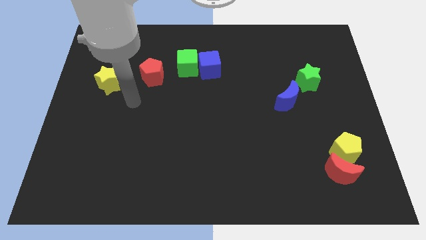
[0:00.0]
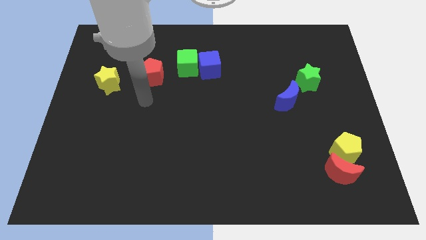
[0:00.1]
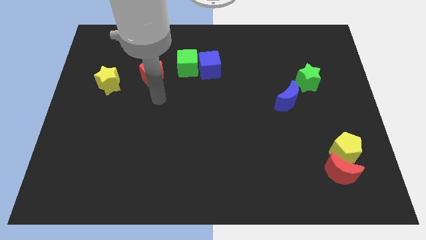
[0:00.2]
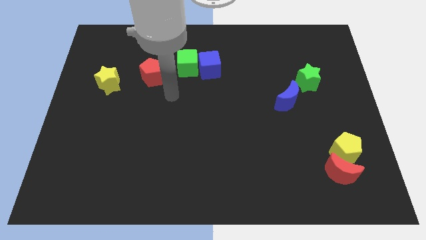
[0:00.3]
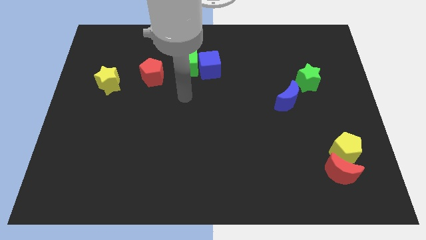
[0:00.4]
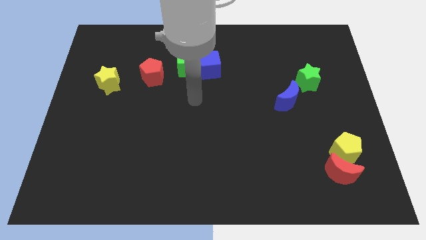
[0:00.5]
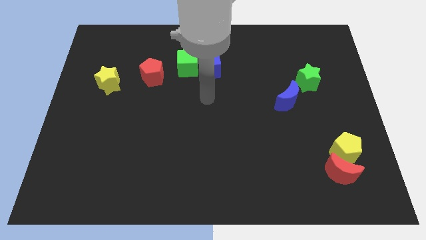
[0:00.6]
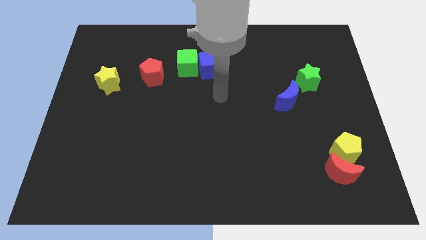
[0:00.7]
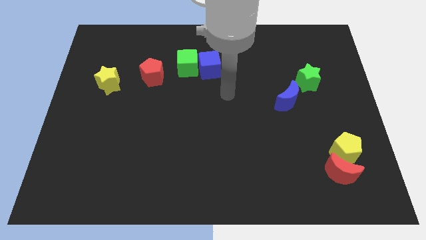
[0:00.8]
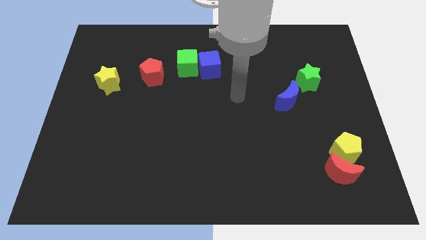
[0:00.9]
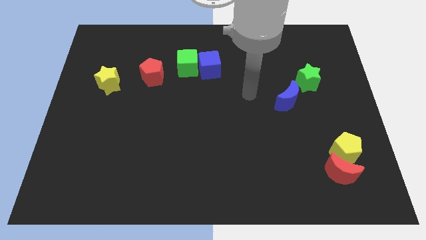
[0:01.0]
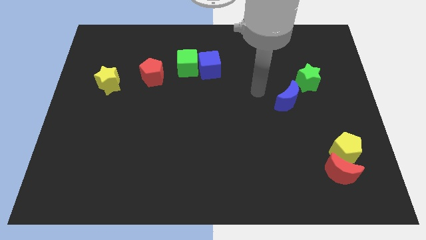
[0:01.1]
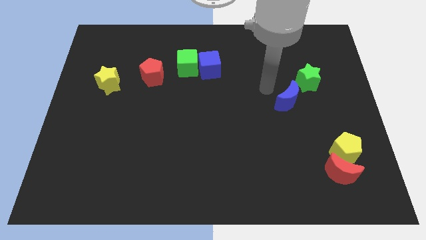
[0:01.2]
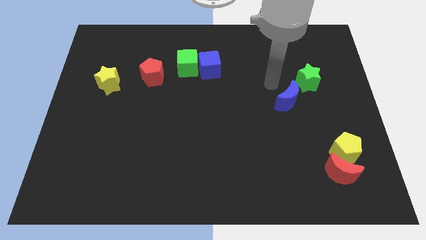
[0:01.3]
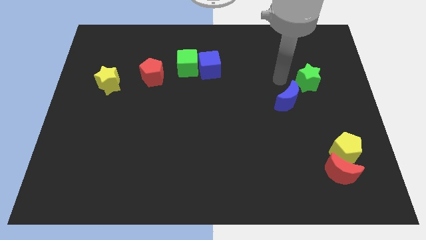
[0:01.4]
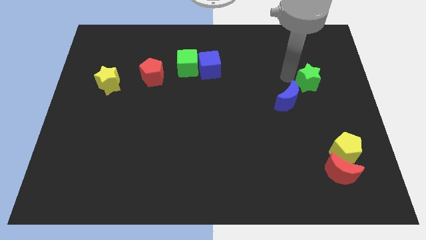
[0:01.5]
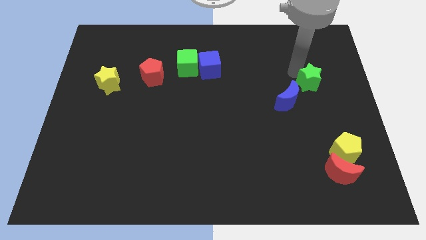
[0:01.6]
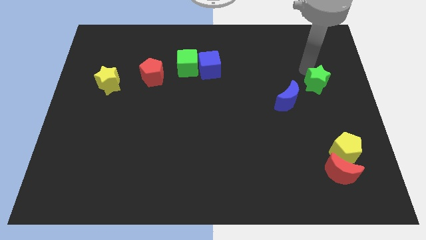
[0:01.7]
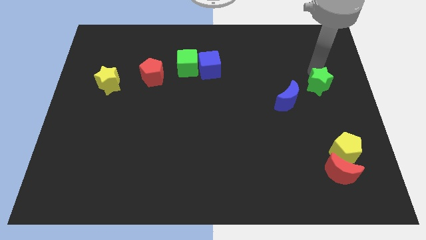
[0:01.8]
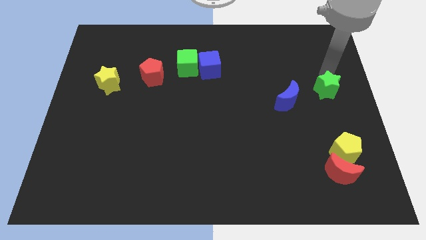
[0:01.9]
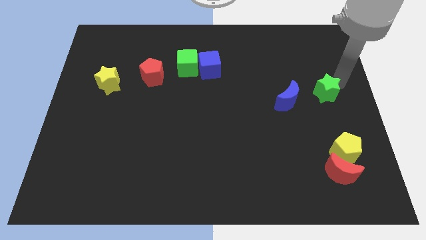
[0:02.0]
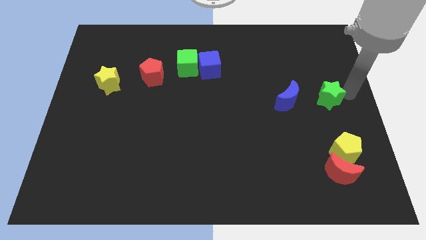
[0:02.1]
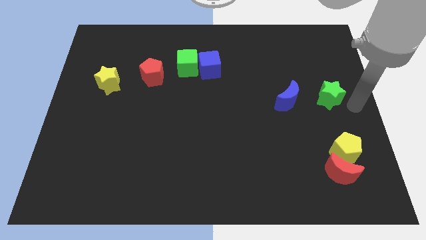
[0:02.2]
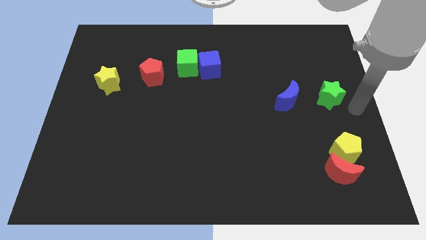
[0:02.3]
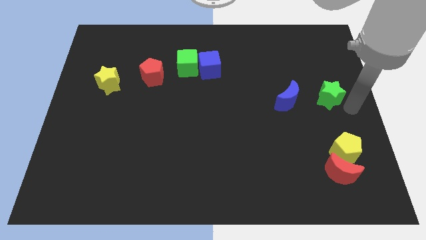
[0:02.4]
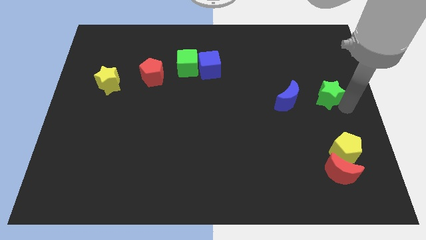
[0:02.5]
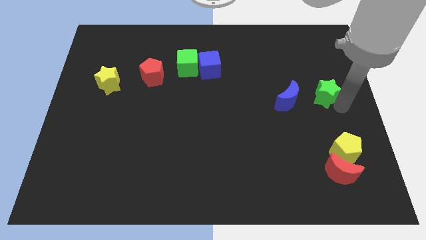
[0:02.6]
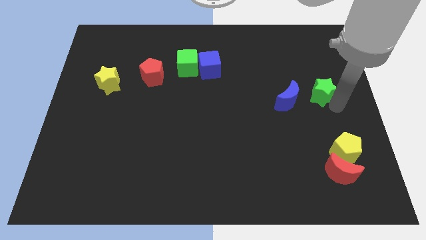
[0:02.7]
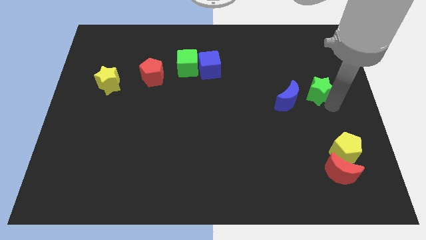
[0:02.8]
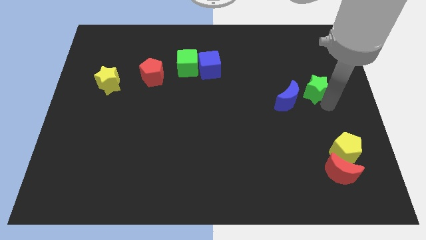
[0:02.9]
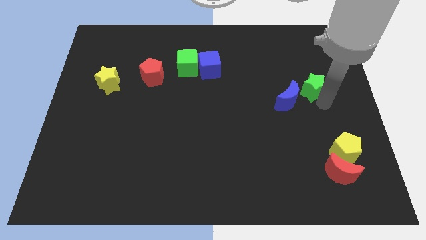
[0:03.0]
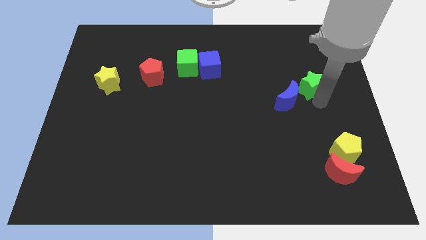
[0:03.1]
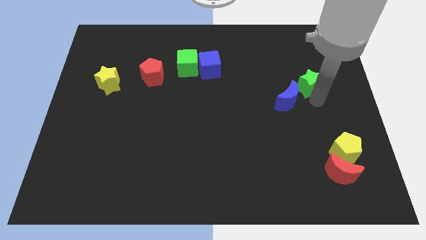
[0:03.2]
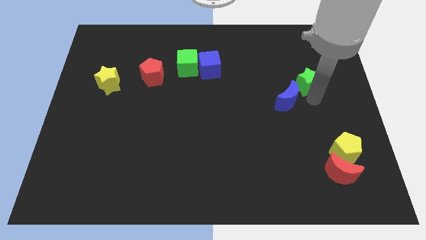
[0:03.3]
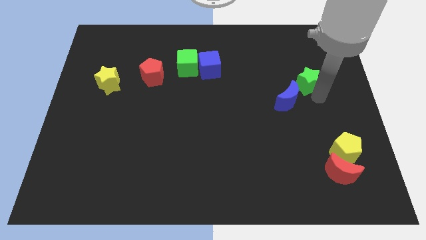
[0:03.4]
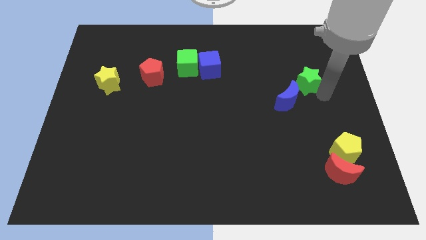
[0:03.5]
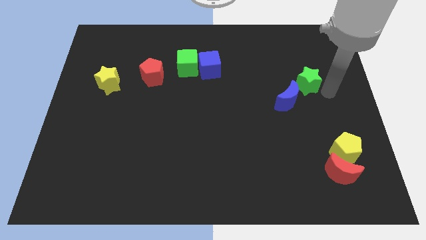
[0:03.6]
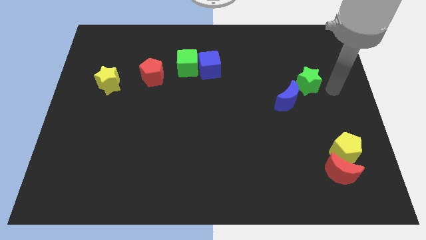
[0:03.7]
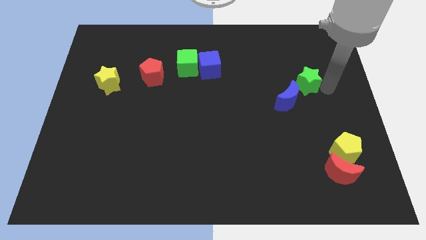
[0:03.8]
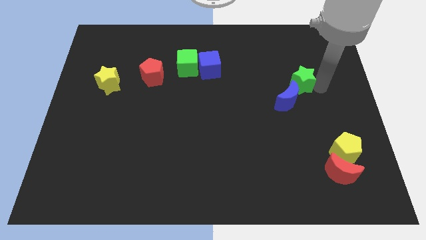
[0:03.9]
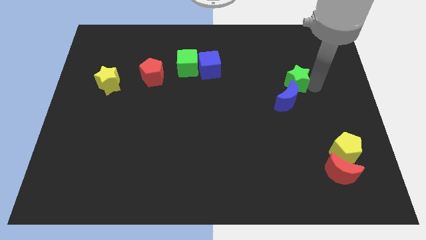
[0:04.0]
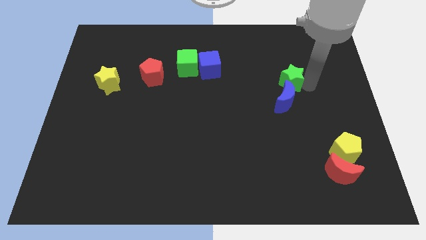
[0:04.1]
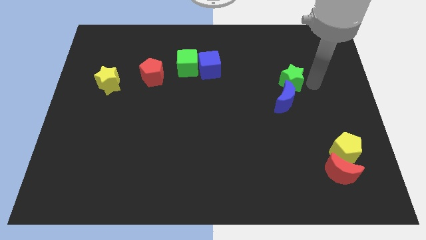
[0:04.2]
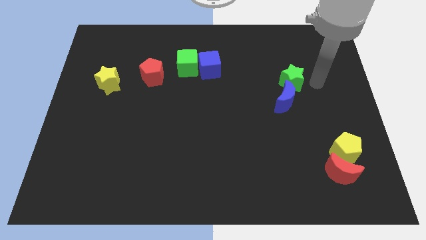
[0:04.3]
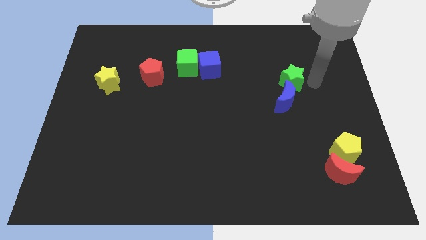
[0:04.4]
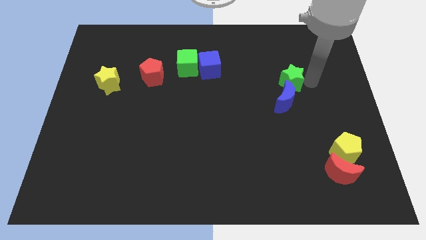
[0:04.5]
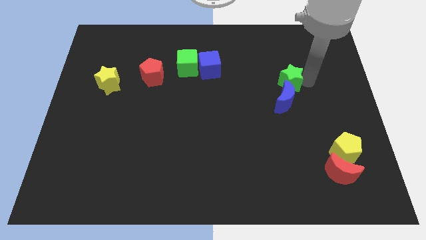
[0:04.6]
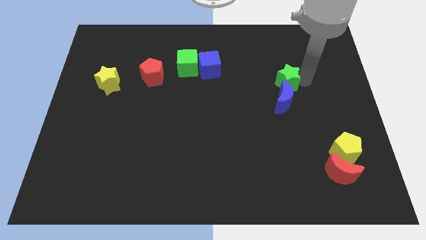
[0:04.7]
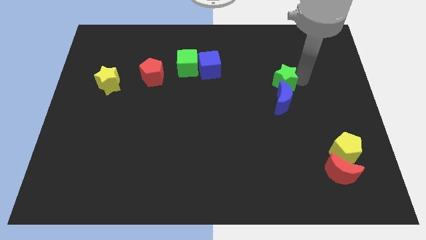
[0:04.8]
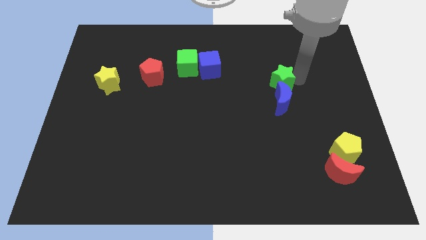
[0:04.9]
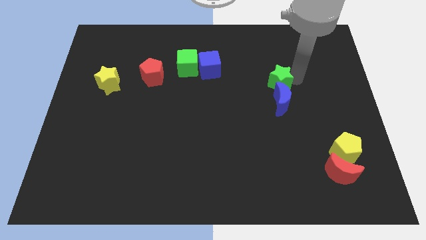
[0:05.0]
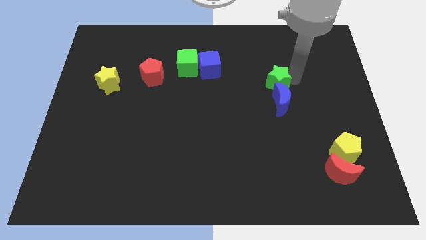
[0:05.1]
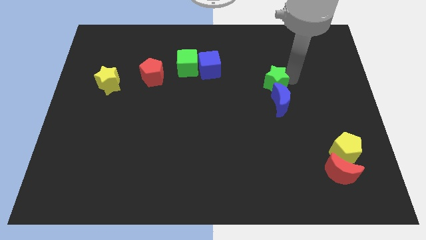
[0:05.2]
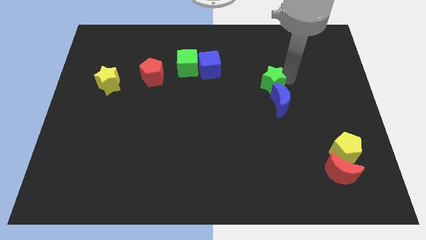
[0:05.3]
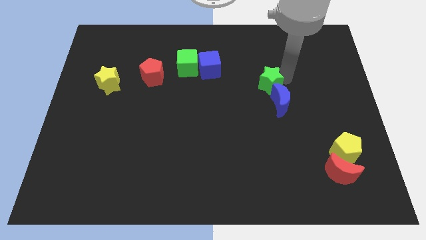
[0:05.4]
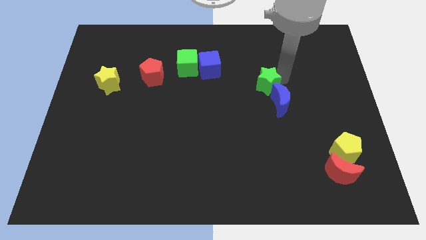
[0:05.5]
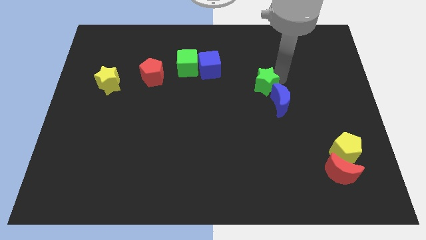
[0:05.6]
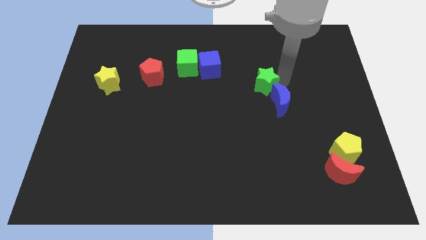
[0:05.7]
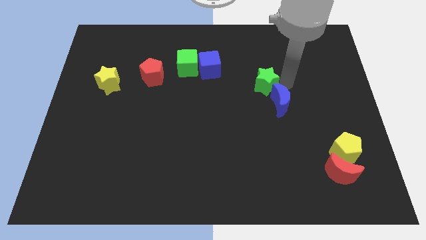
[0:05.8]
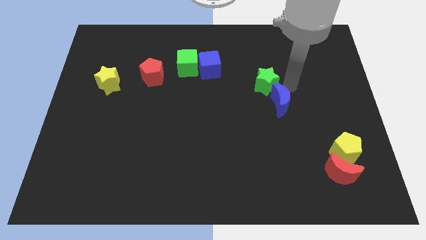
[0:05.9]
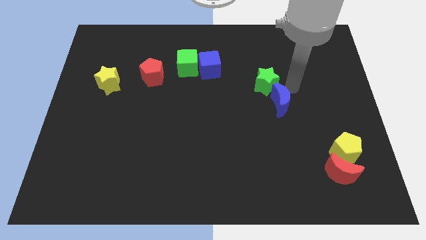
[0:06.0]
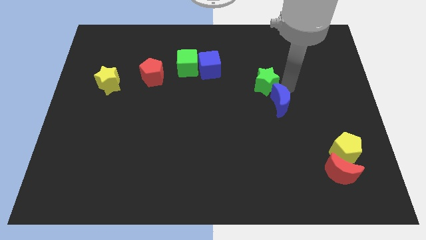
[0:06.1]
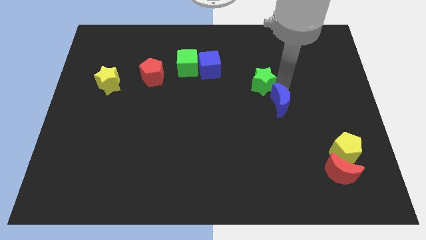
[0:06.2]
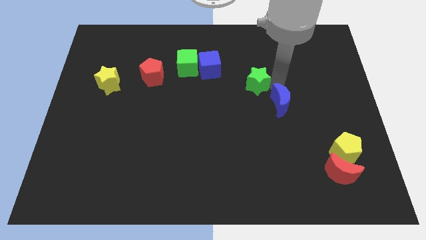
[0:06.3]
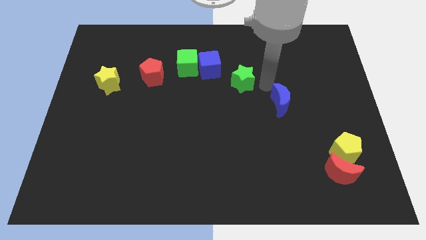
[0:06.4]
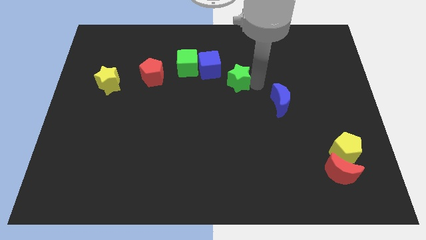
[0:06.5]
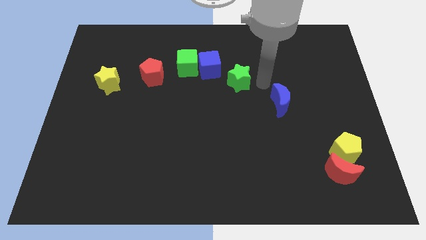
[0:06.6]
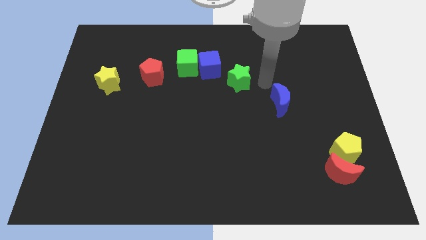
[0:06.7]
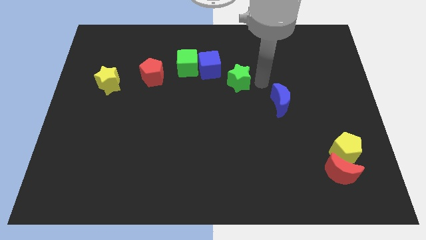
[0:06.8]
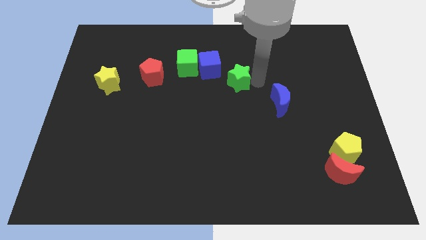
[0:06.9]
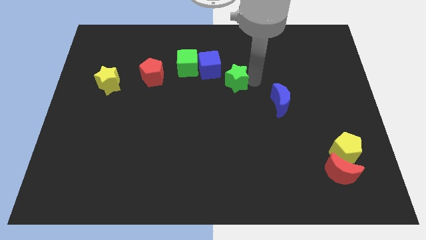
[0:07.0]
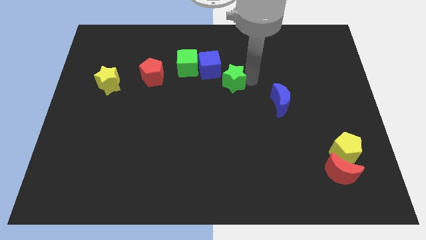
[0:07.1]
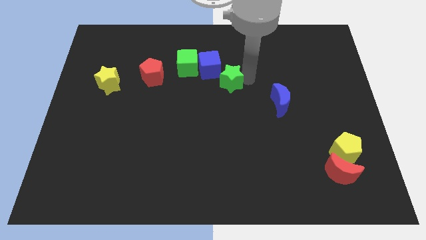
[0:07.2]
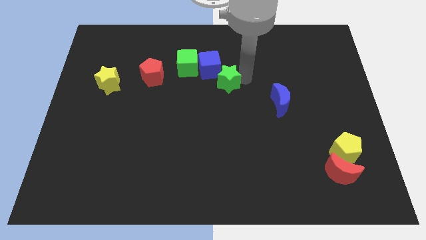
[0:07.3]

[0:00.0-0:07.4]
move the green star diagonally down and to the right of the green cube

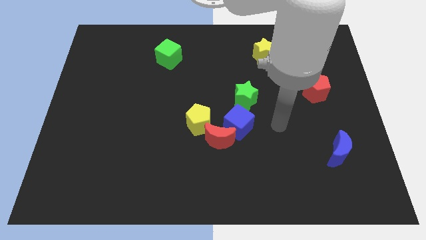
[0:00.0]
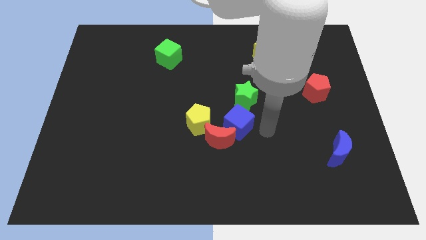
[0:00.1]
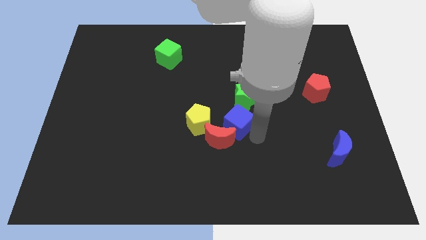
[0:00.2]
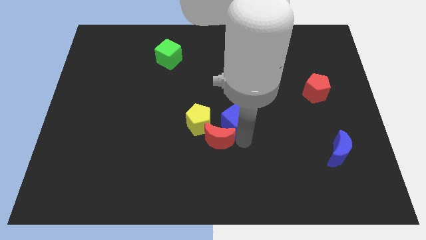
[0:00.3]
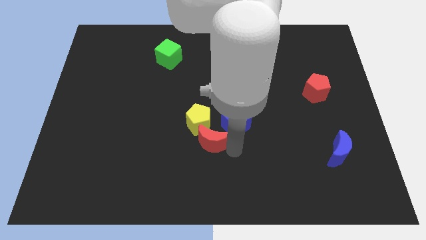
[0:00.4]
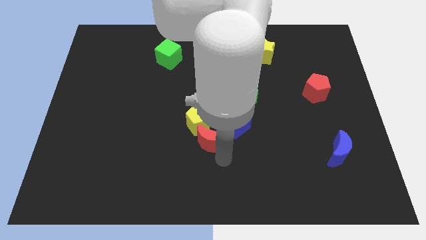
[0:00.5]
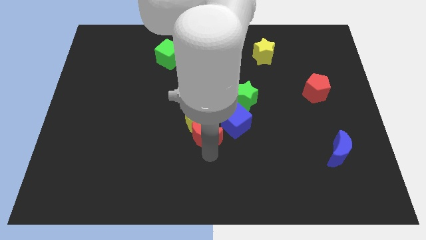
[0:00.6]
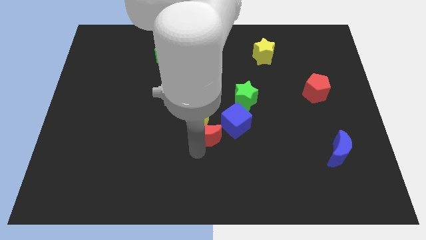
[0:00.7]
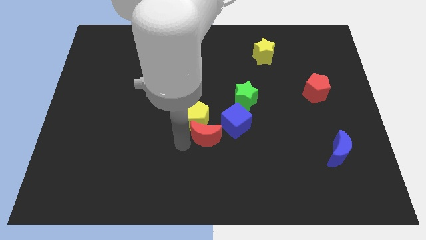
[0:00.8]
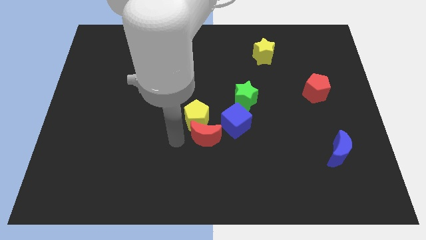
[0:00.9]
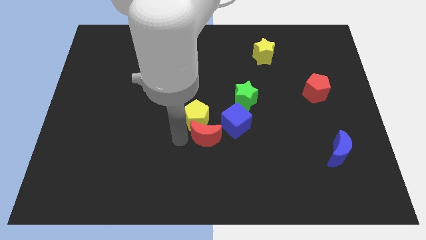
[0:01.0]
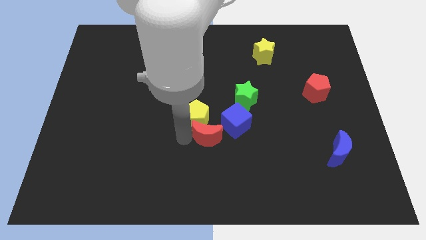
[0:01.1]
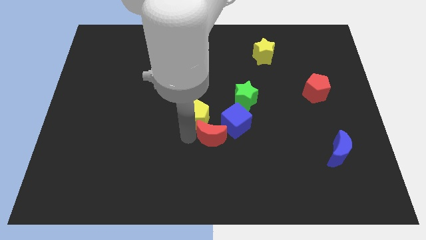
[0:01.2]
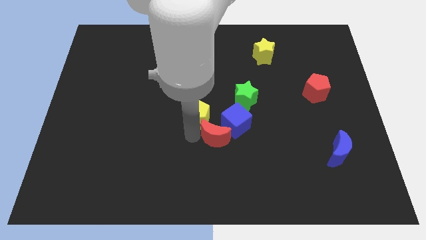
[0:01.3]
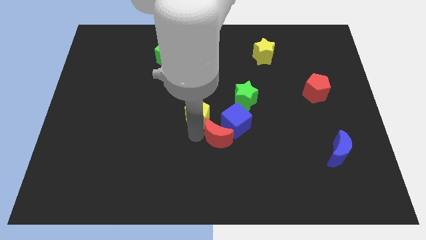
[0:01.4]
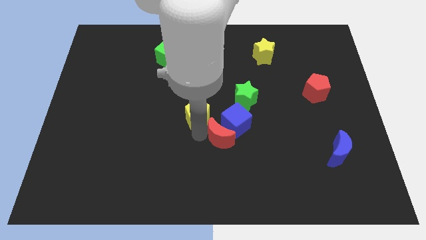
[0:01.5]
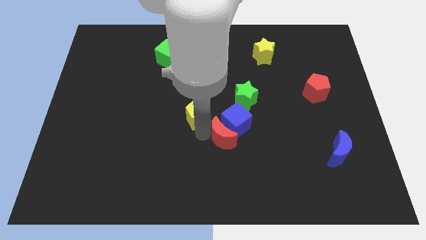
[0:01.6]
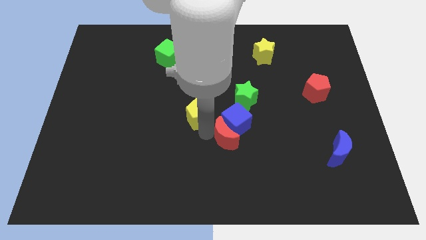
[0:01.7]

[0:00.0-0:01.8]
put the red moon to the bottom of the green star
